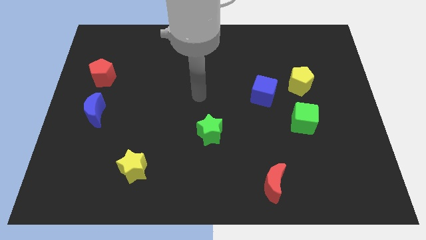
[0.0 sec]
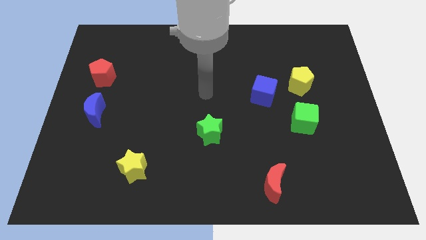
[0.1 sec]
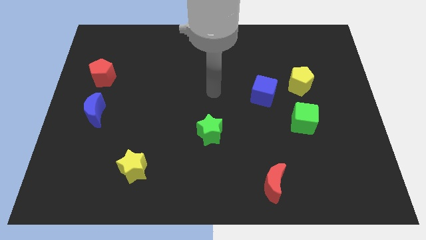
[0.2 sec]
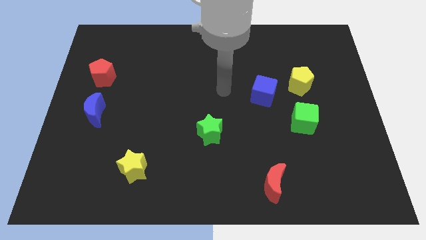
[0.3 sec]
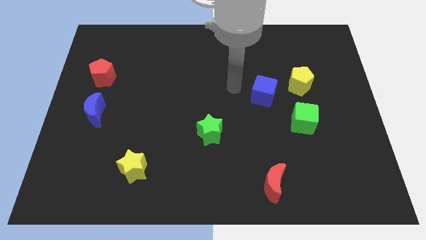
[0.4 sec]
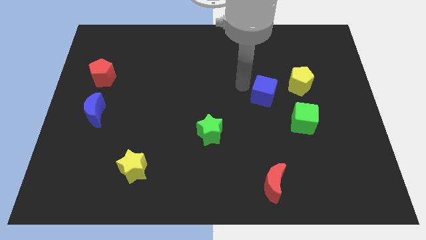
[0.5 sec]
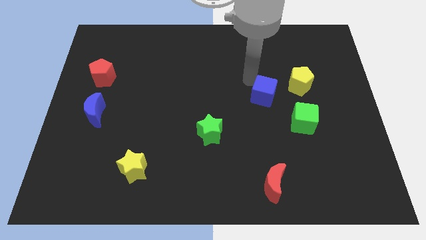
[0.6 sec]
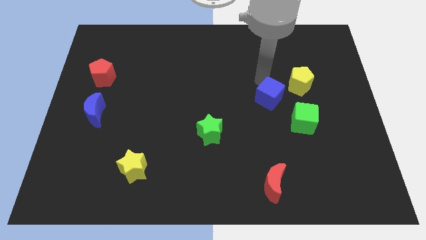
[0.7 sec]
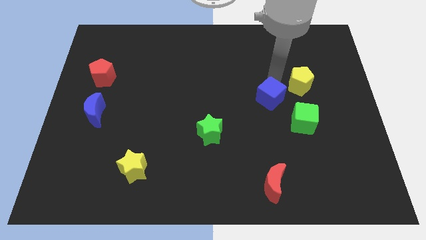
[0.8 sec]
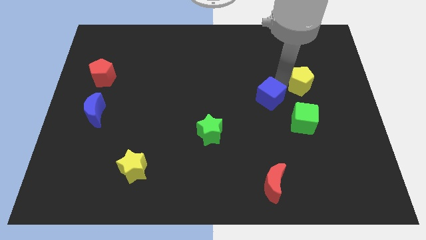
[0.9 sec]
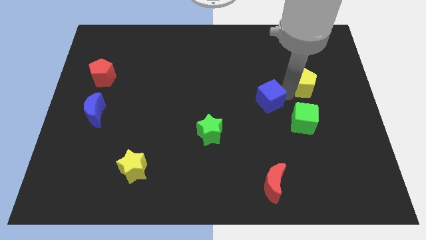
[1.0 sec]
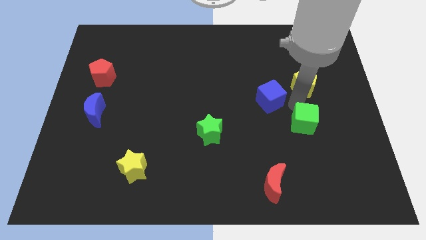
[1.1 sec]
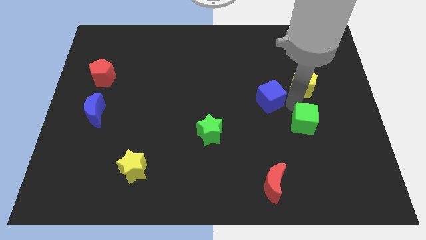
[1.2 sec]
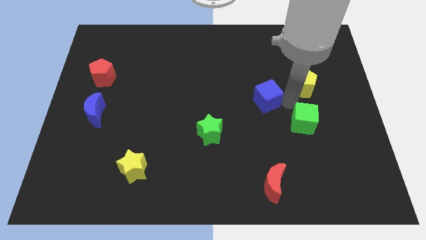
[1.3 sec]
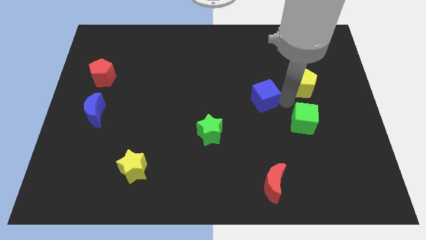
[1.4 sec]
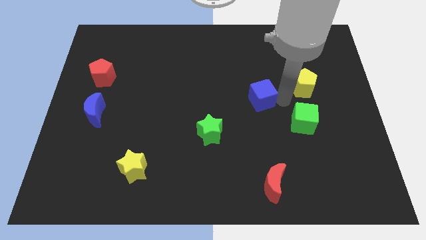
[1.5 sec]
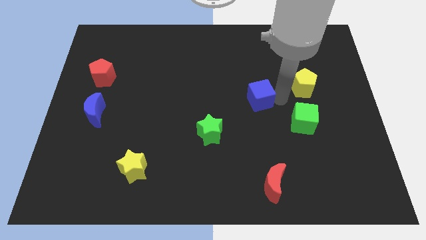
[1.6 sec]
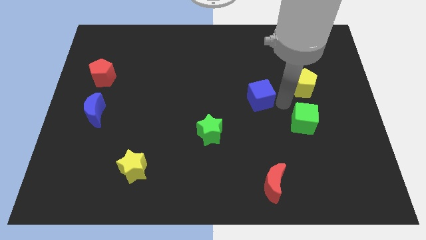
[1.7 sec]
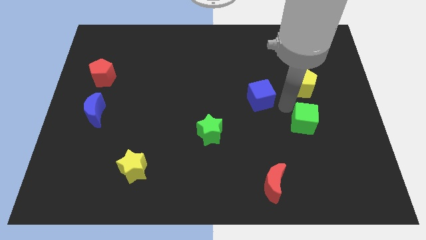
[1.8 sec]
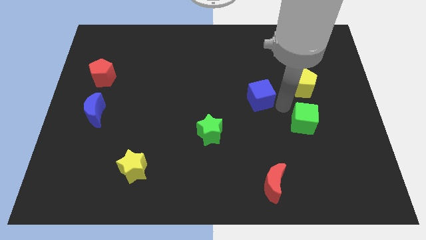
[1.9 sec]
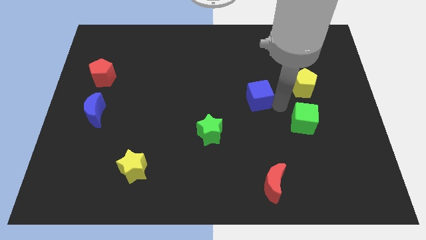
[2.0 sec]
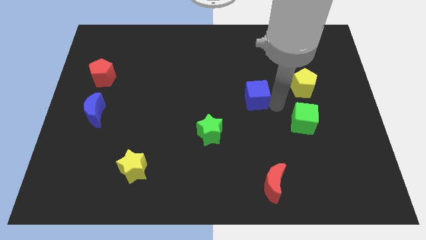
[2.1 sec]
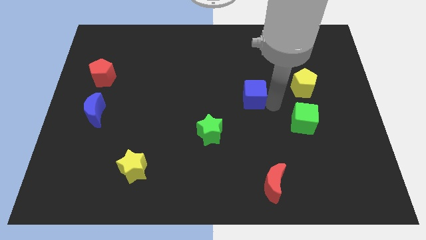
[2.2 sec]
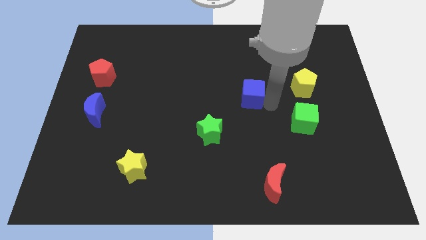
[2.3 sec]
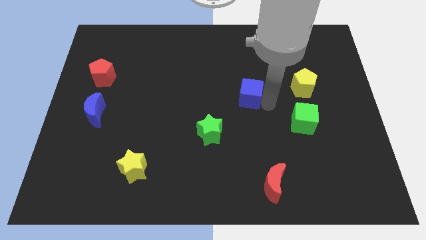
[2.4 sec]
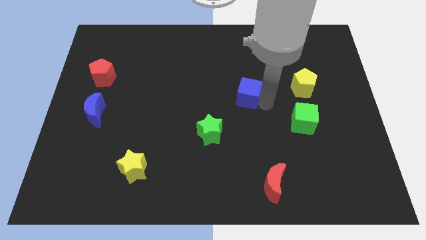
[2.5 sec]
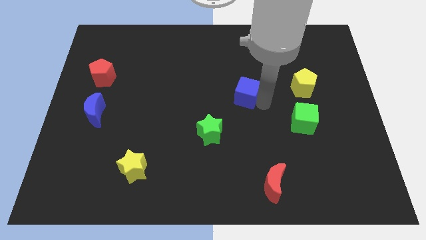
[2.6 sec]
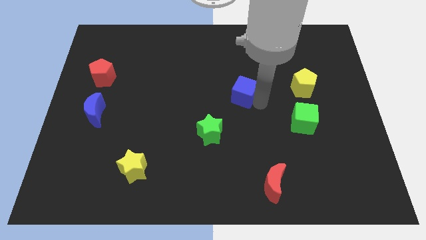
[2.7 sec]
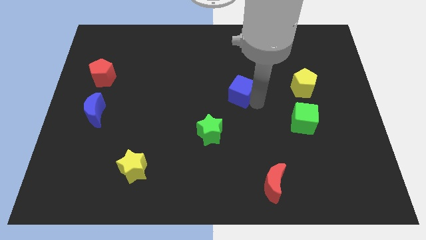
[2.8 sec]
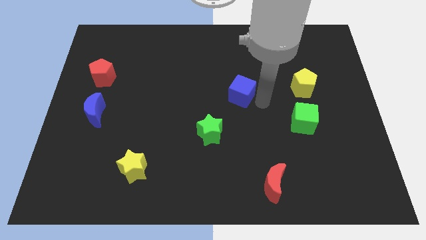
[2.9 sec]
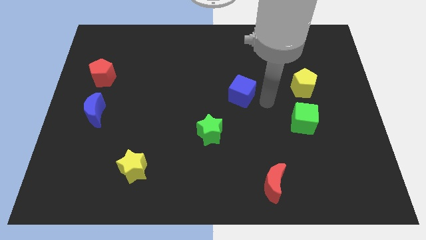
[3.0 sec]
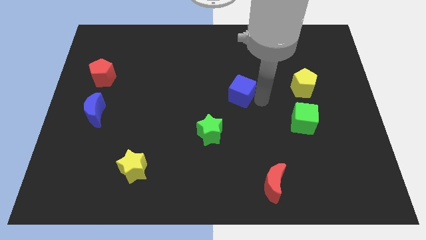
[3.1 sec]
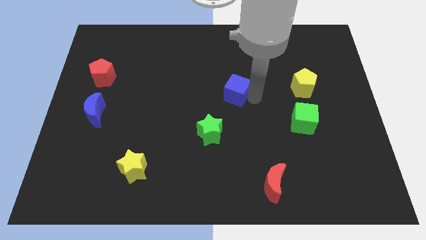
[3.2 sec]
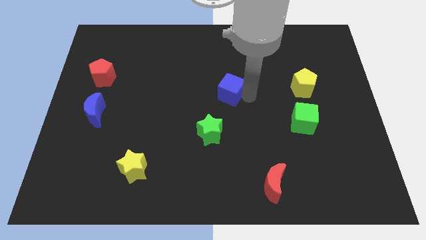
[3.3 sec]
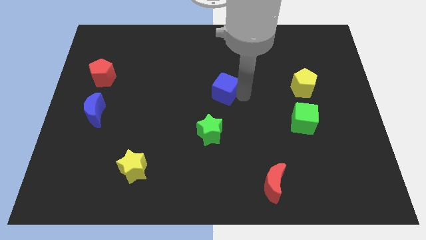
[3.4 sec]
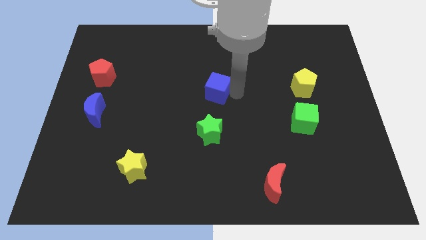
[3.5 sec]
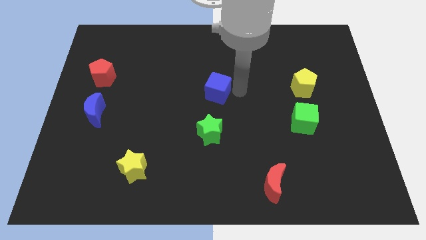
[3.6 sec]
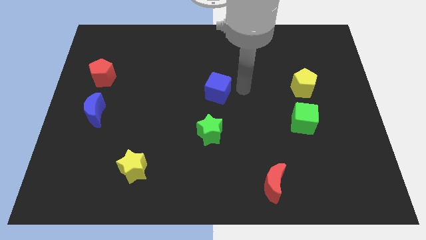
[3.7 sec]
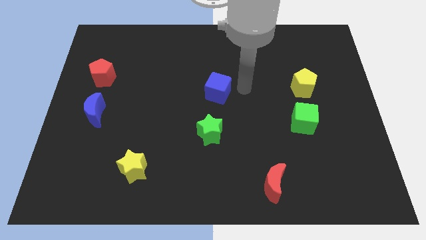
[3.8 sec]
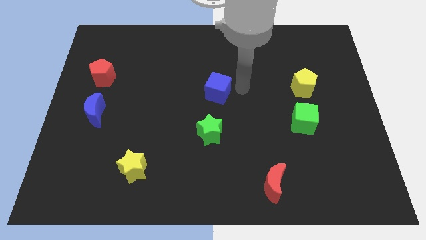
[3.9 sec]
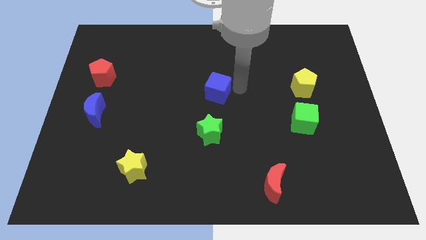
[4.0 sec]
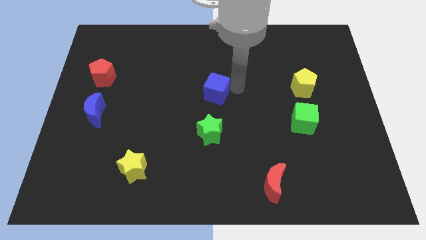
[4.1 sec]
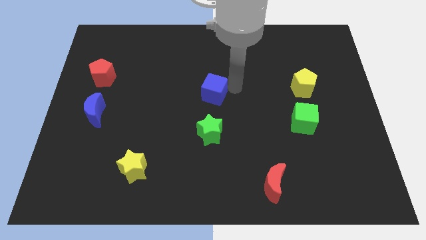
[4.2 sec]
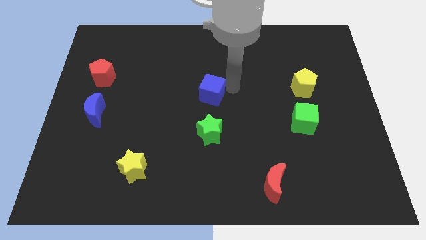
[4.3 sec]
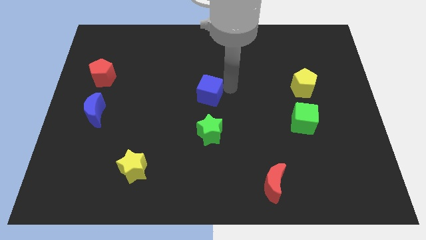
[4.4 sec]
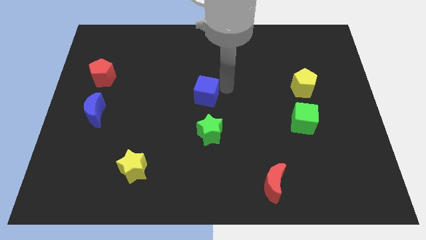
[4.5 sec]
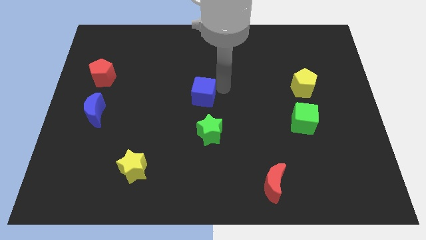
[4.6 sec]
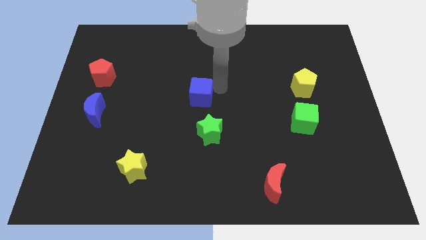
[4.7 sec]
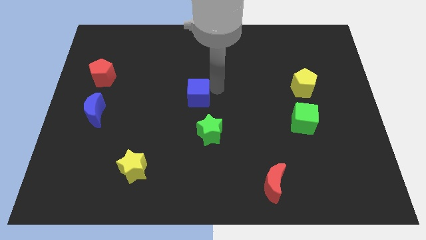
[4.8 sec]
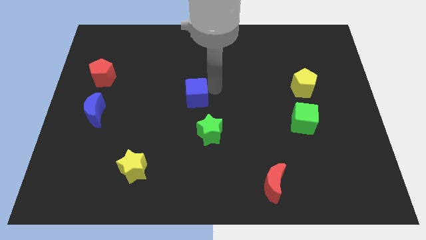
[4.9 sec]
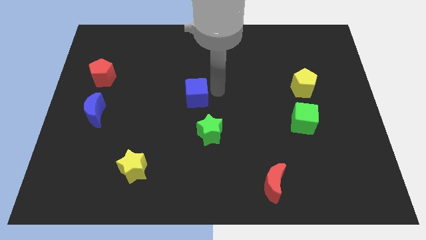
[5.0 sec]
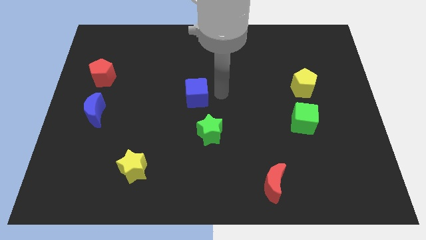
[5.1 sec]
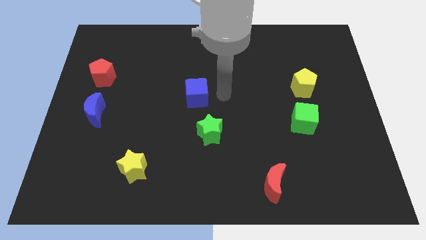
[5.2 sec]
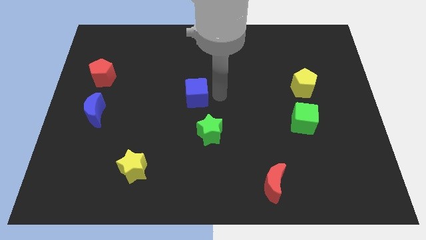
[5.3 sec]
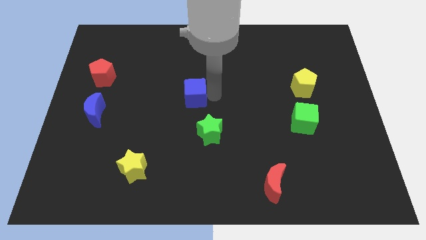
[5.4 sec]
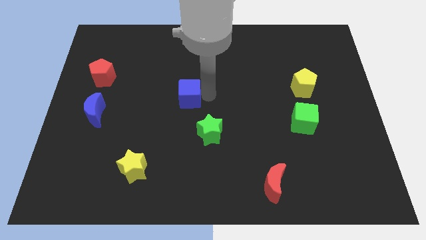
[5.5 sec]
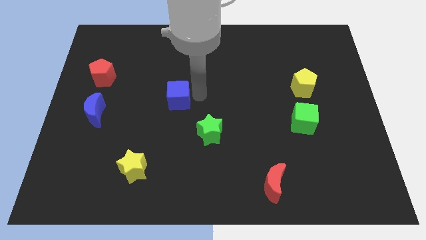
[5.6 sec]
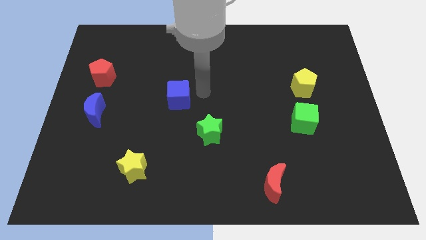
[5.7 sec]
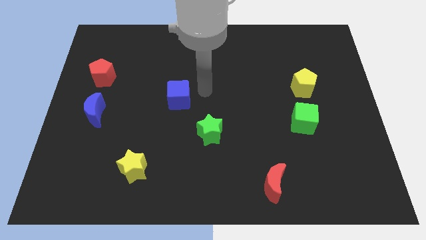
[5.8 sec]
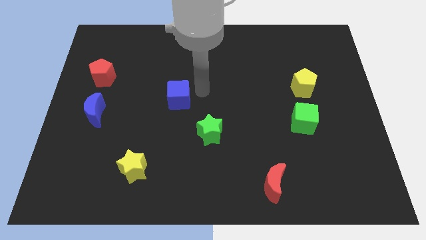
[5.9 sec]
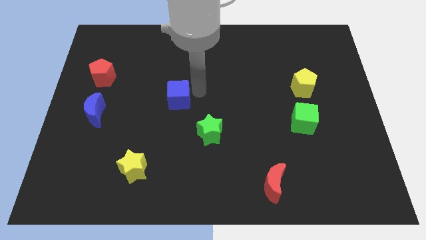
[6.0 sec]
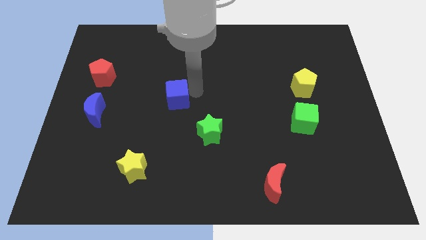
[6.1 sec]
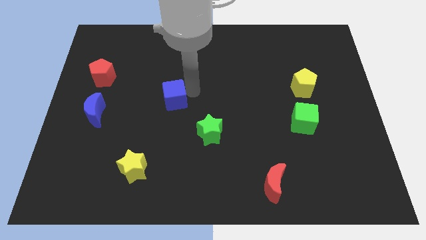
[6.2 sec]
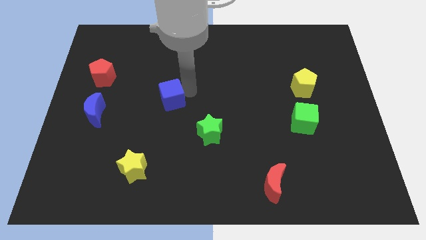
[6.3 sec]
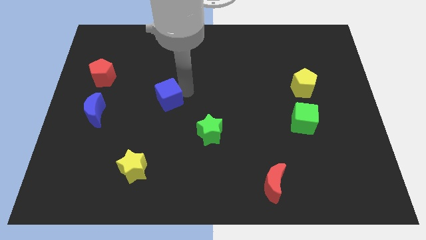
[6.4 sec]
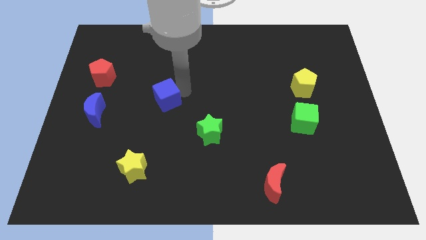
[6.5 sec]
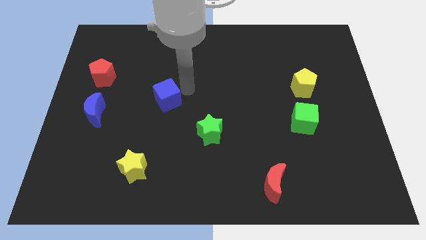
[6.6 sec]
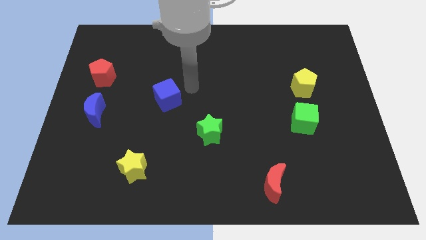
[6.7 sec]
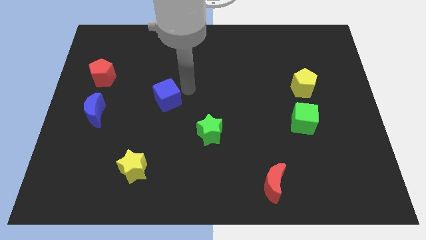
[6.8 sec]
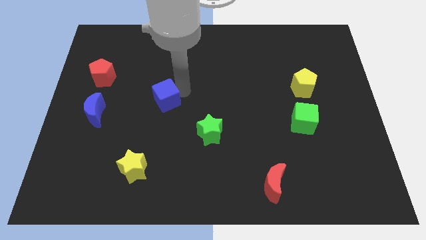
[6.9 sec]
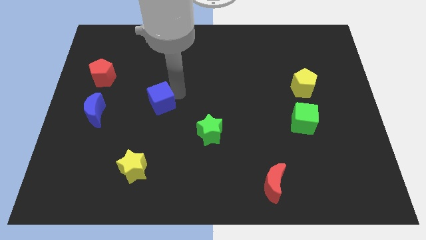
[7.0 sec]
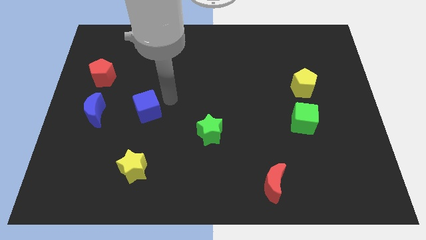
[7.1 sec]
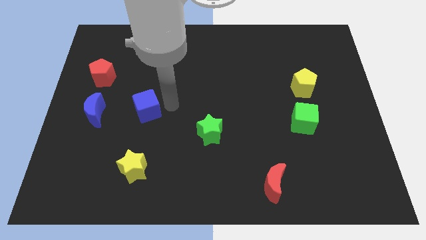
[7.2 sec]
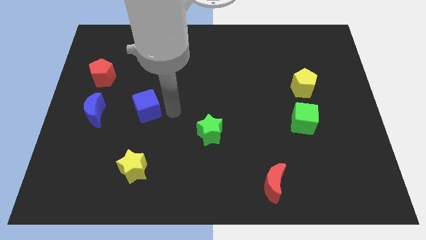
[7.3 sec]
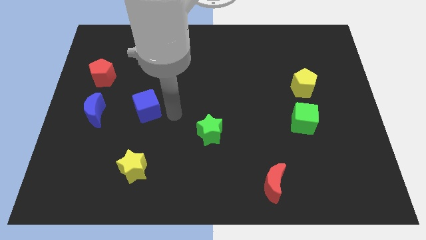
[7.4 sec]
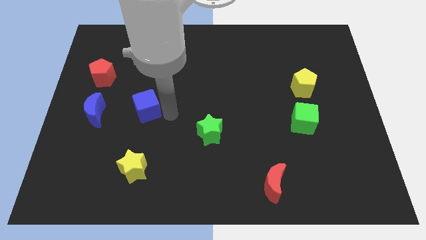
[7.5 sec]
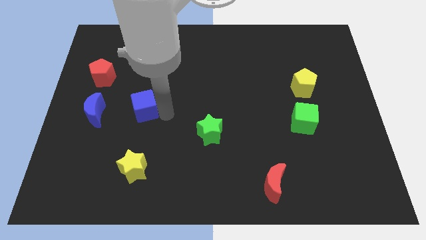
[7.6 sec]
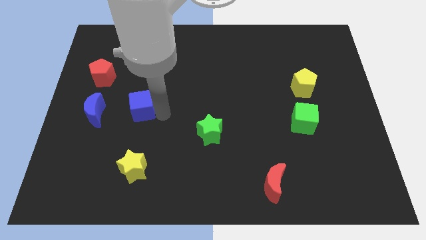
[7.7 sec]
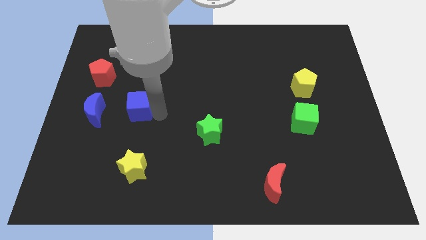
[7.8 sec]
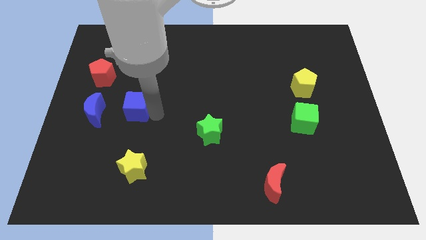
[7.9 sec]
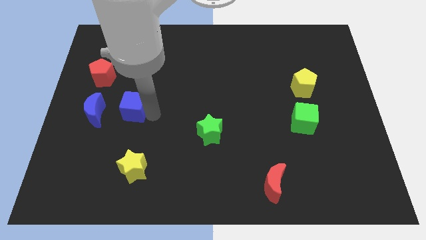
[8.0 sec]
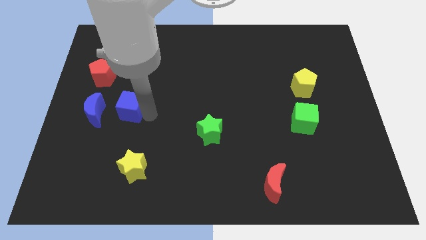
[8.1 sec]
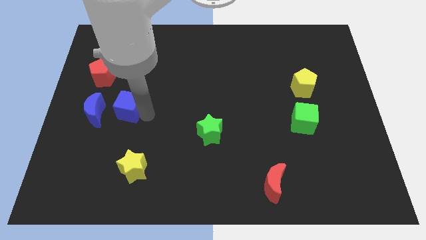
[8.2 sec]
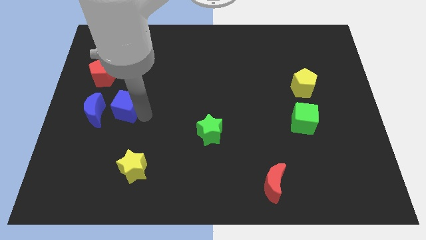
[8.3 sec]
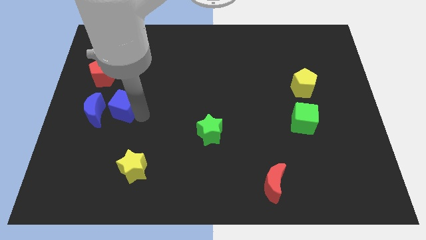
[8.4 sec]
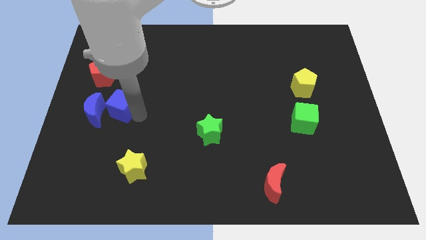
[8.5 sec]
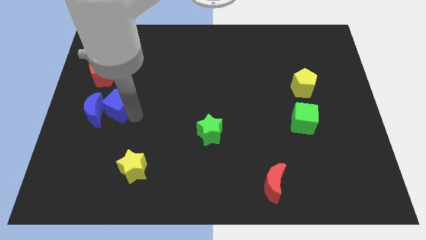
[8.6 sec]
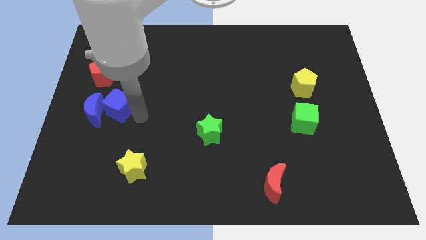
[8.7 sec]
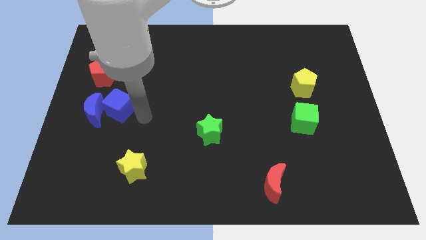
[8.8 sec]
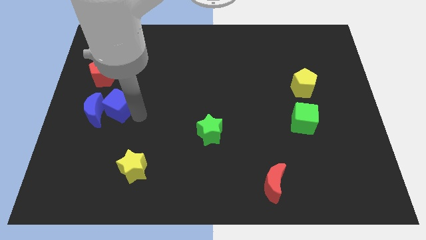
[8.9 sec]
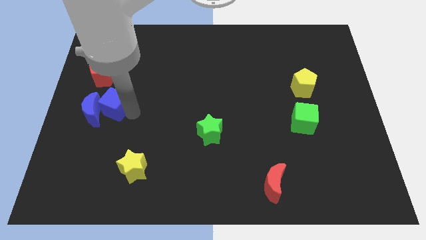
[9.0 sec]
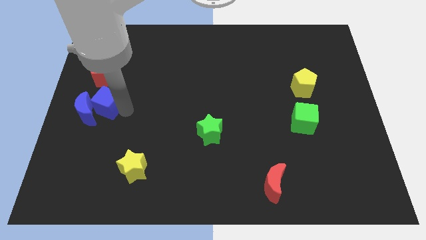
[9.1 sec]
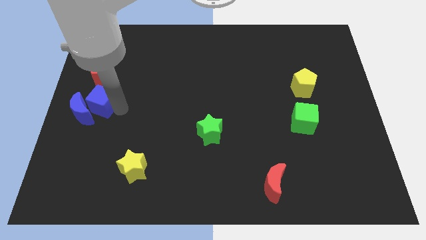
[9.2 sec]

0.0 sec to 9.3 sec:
push the blue cube to the center left
